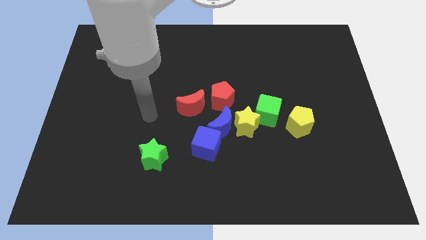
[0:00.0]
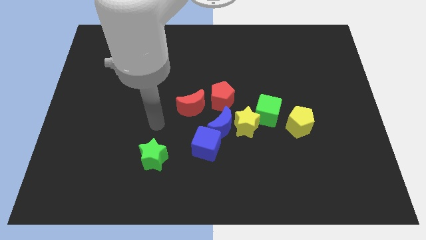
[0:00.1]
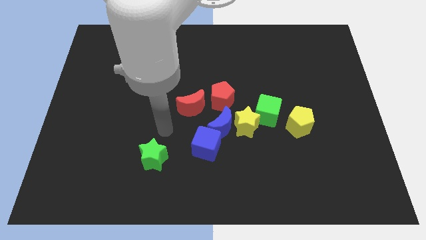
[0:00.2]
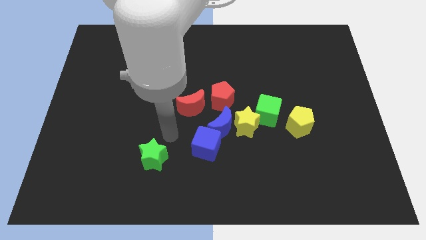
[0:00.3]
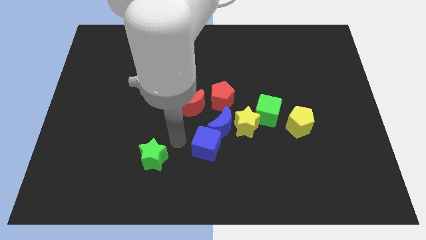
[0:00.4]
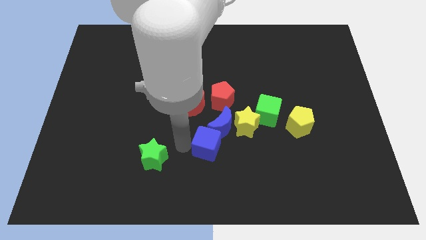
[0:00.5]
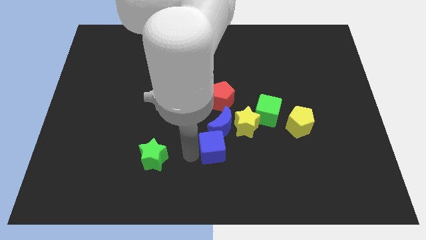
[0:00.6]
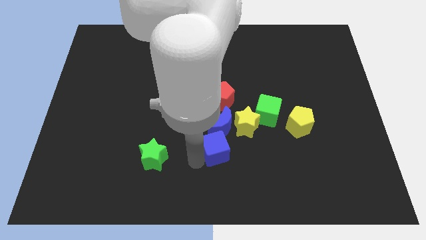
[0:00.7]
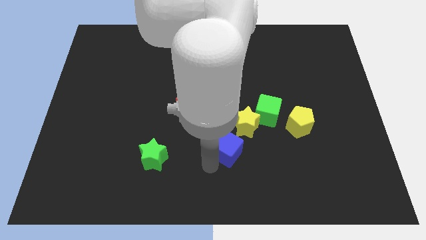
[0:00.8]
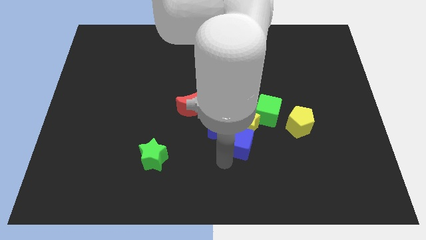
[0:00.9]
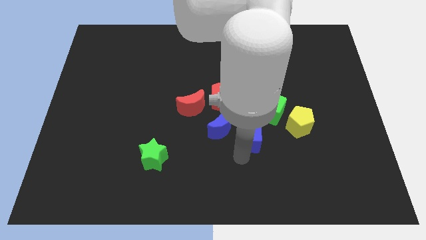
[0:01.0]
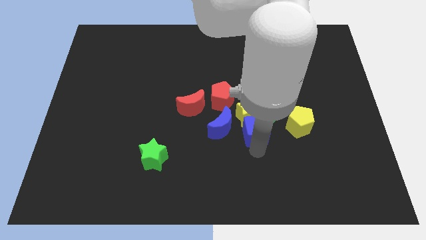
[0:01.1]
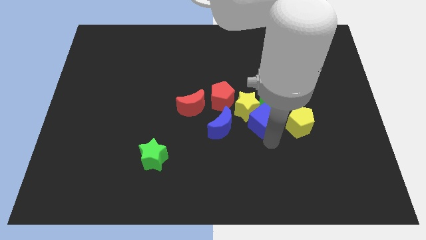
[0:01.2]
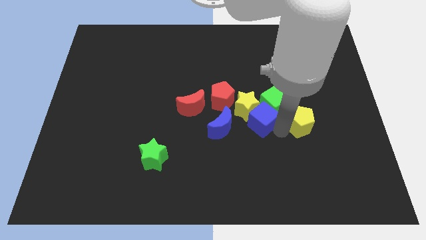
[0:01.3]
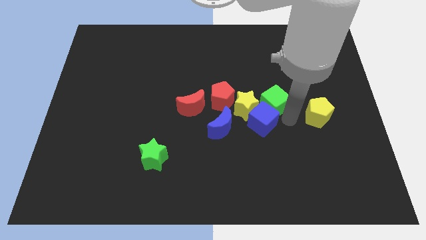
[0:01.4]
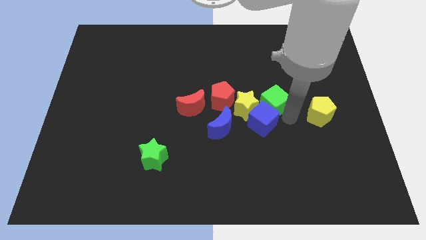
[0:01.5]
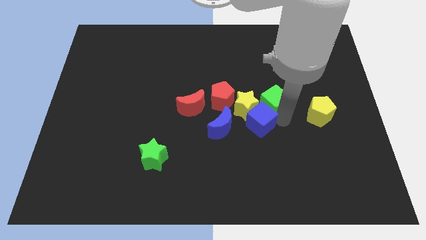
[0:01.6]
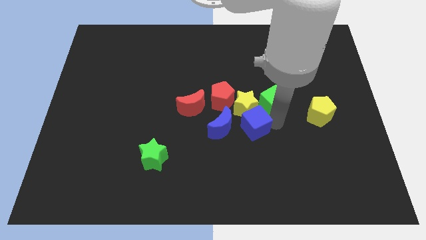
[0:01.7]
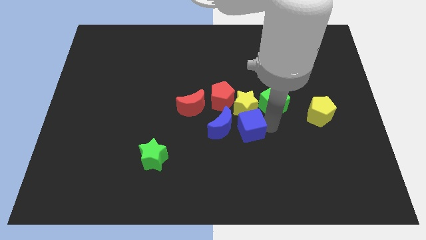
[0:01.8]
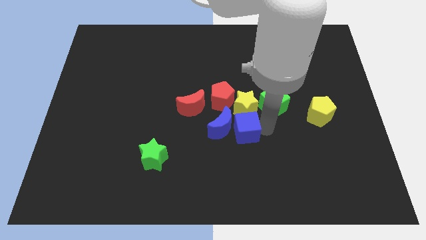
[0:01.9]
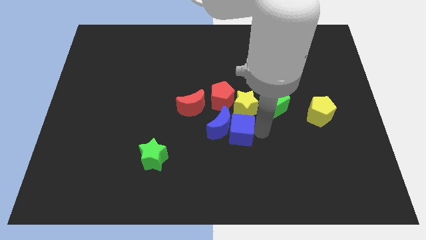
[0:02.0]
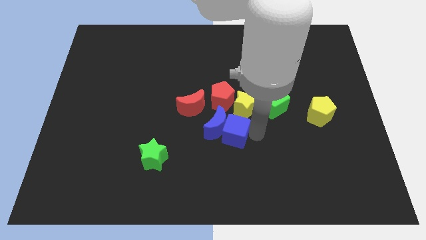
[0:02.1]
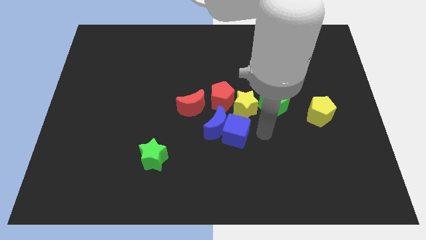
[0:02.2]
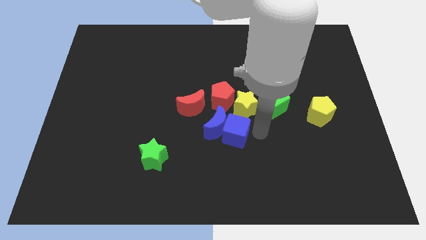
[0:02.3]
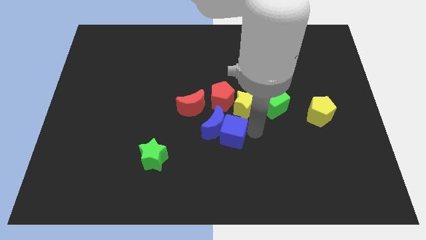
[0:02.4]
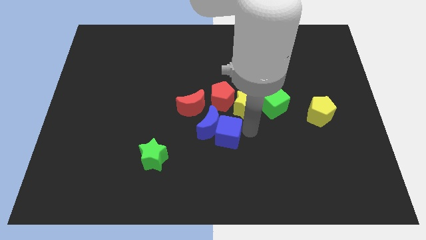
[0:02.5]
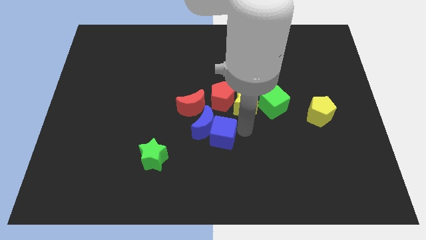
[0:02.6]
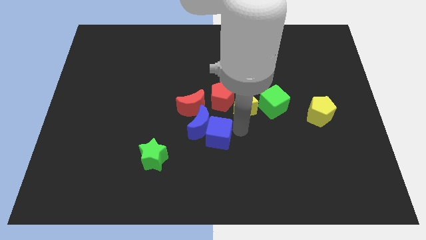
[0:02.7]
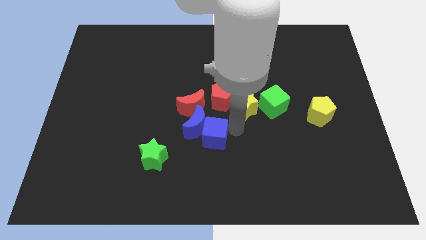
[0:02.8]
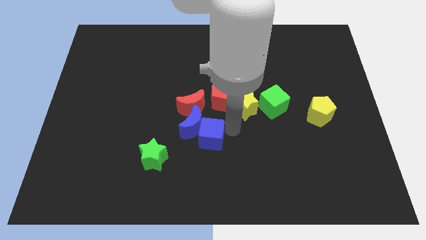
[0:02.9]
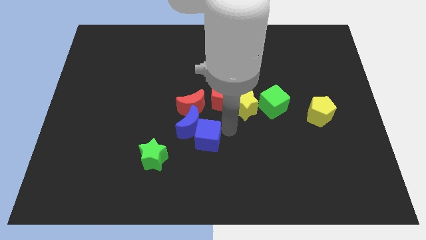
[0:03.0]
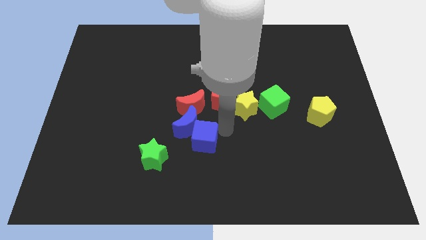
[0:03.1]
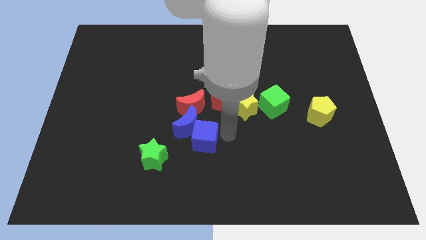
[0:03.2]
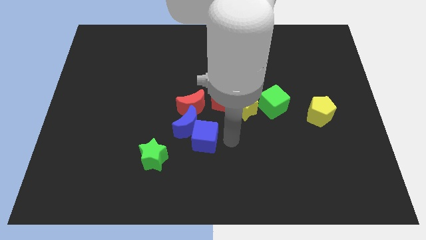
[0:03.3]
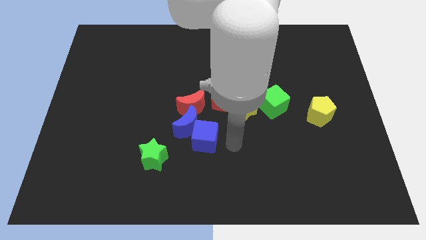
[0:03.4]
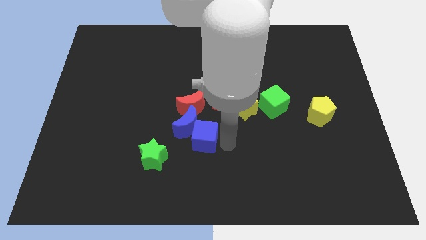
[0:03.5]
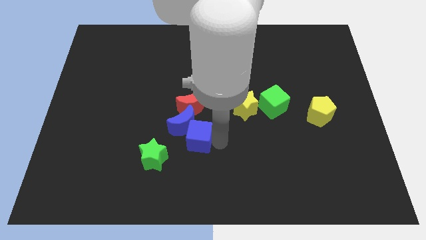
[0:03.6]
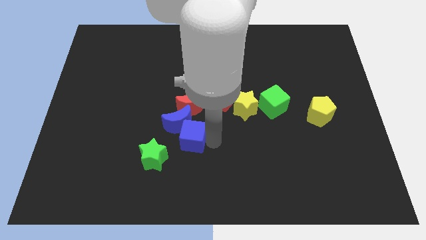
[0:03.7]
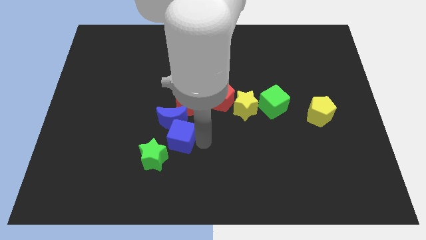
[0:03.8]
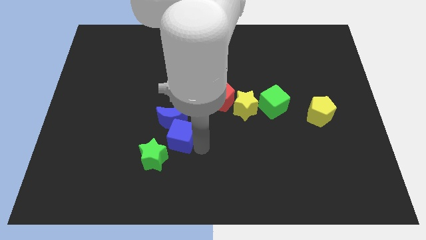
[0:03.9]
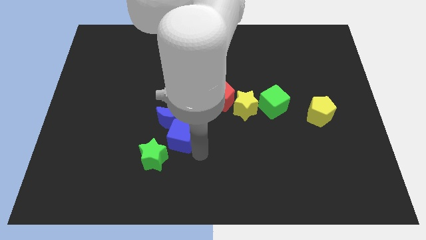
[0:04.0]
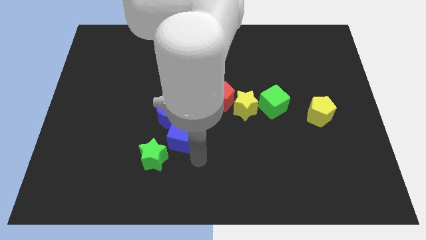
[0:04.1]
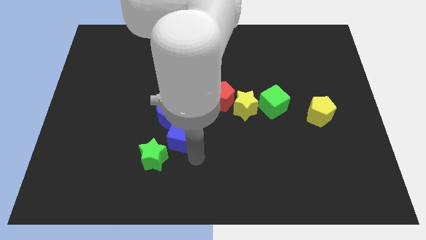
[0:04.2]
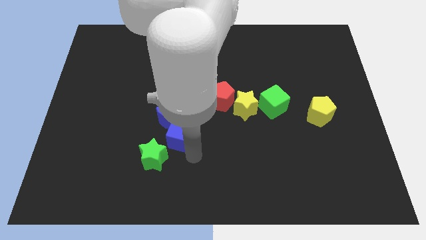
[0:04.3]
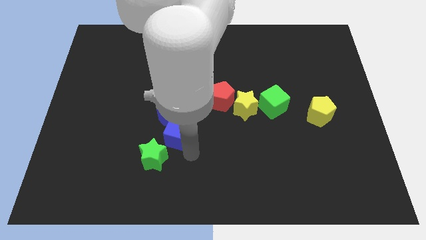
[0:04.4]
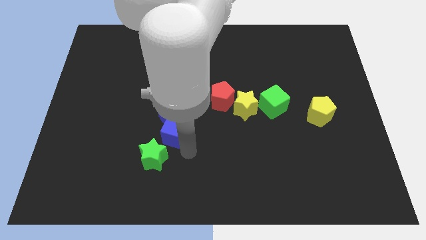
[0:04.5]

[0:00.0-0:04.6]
slightly slide the blue cube diagonally upwards and to the left

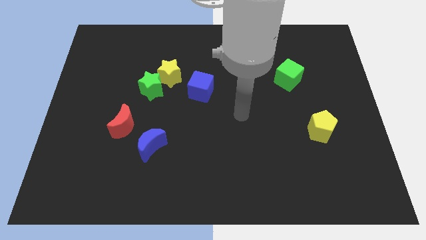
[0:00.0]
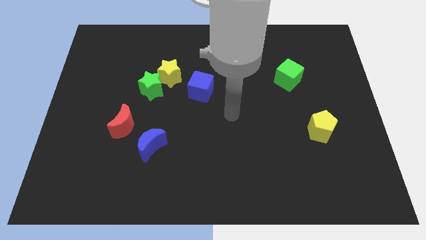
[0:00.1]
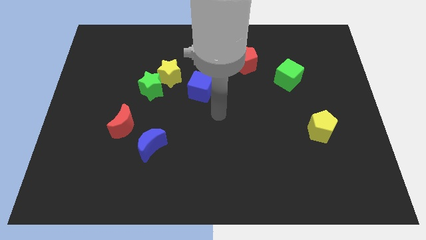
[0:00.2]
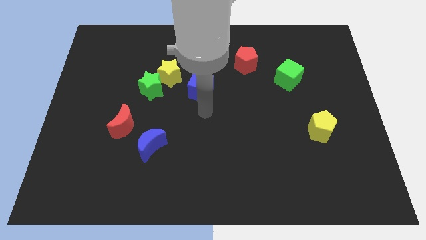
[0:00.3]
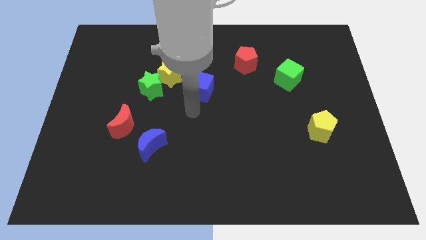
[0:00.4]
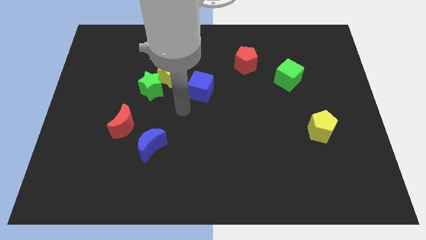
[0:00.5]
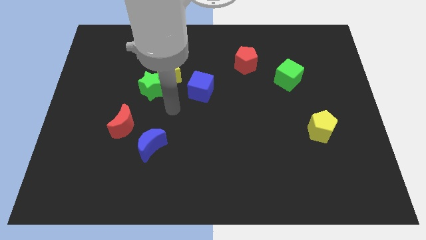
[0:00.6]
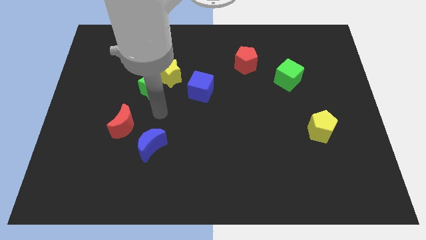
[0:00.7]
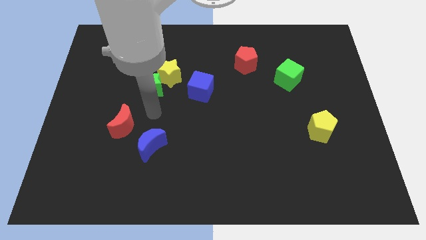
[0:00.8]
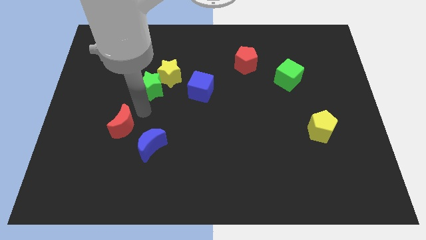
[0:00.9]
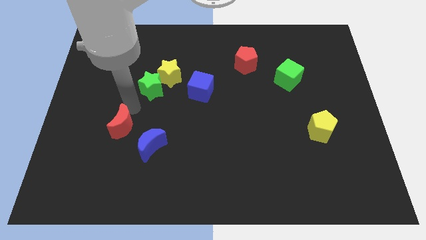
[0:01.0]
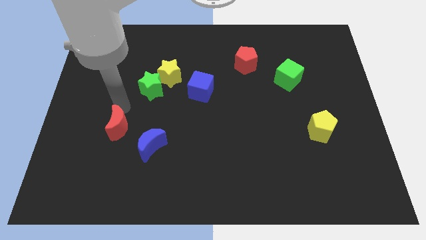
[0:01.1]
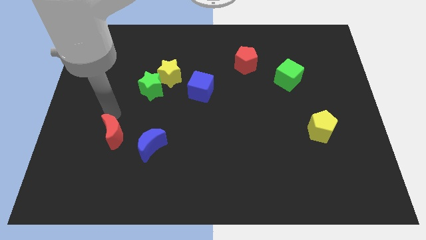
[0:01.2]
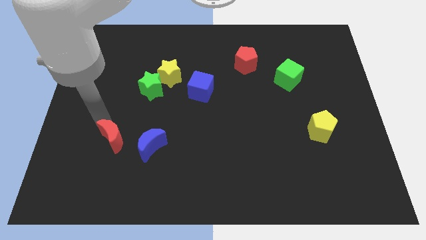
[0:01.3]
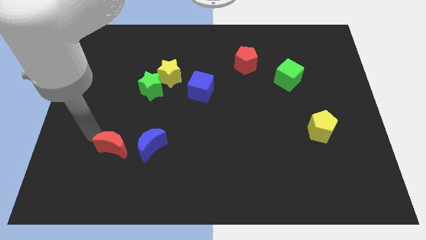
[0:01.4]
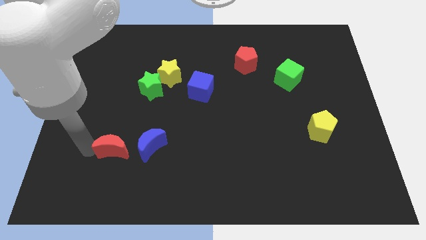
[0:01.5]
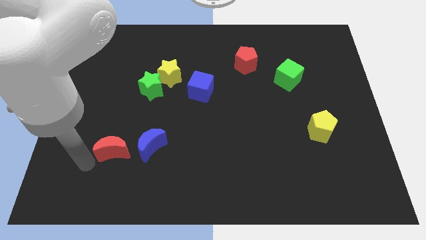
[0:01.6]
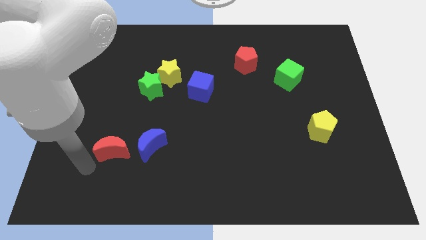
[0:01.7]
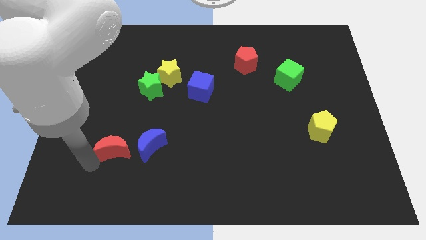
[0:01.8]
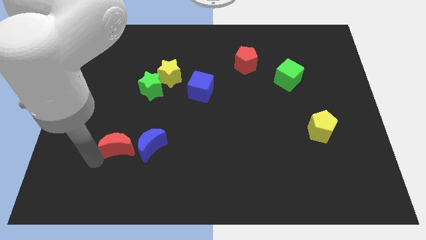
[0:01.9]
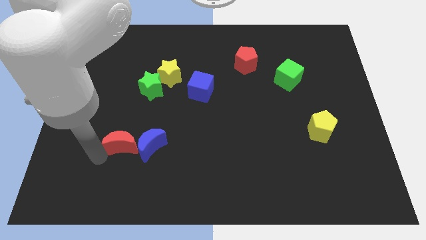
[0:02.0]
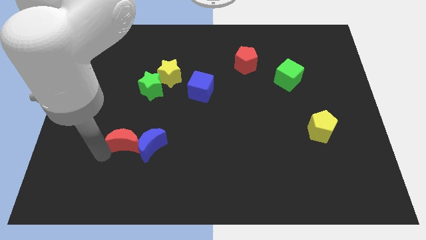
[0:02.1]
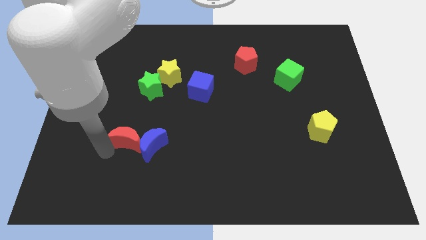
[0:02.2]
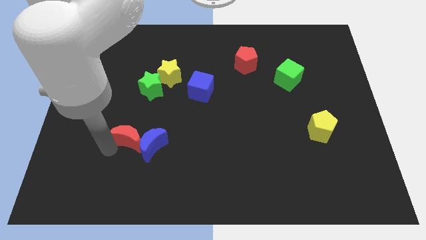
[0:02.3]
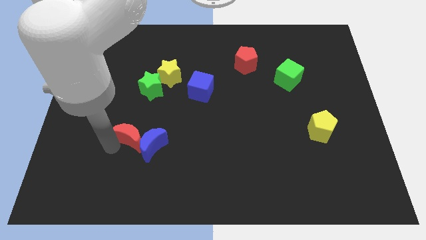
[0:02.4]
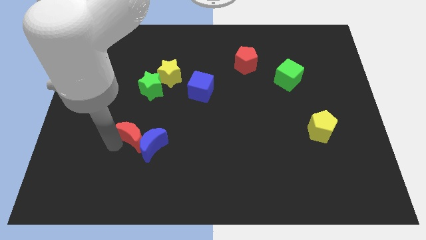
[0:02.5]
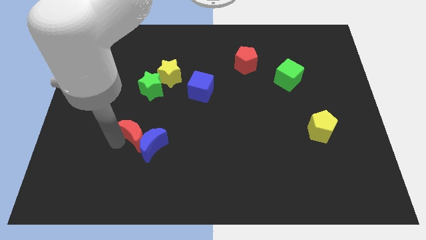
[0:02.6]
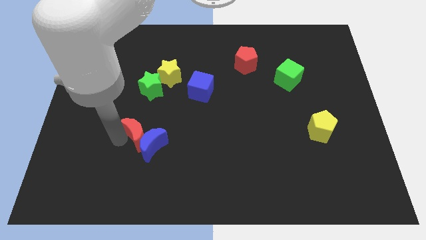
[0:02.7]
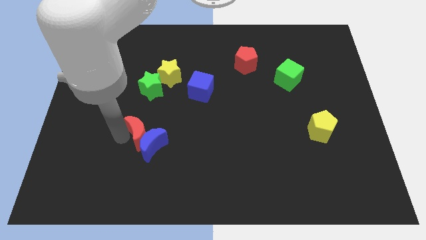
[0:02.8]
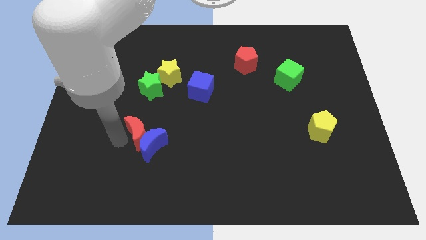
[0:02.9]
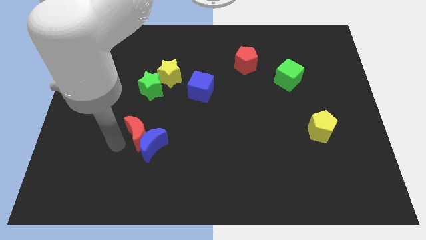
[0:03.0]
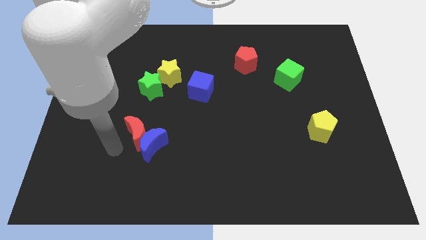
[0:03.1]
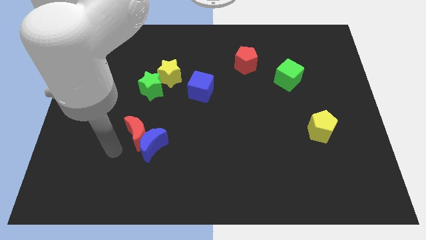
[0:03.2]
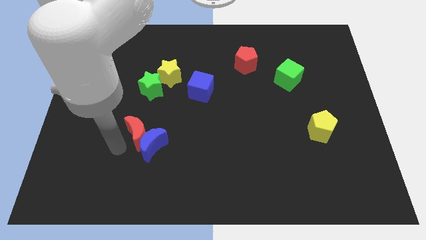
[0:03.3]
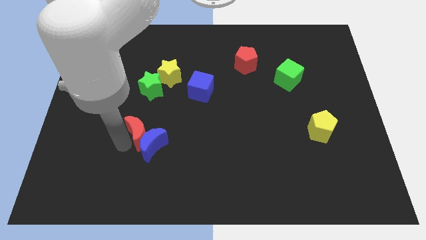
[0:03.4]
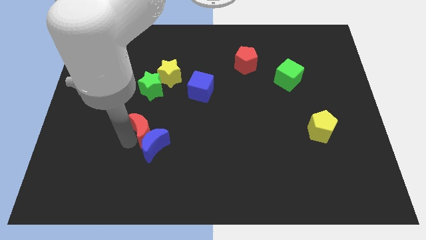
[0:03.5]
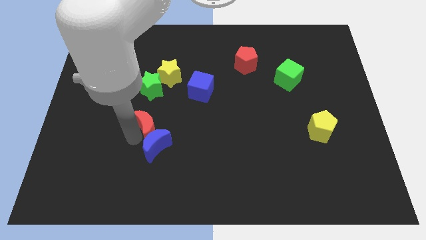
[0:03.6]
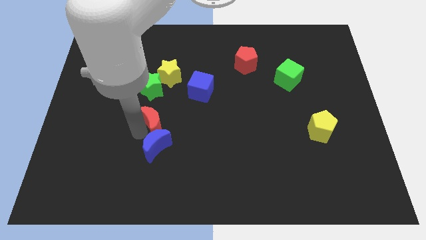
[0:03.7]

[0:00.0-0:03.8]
slightly slide the red moon to the right
